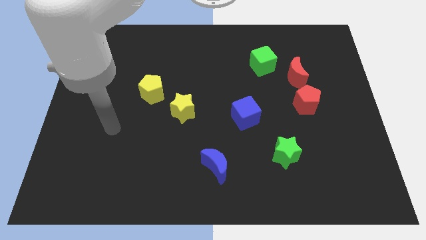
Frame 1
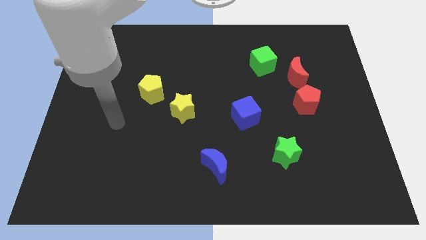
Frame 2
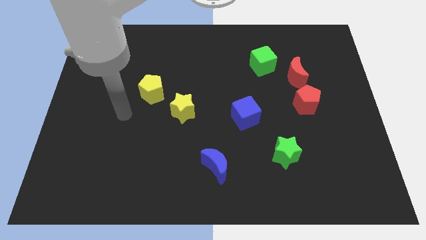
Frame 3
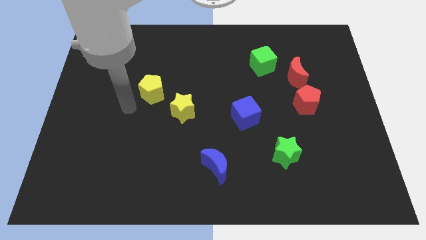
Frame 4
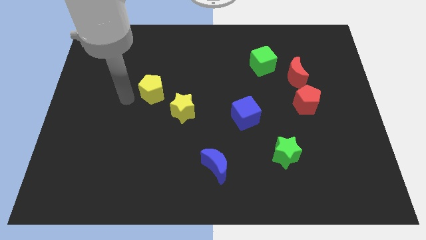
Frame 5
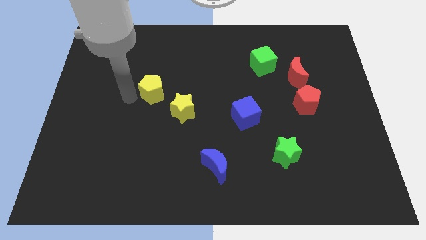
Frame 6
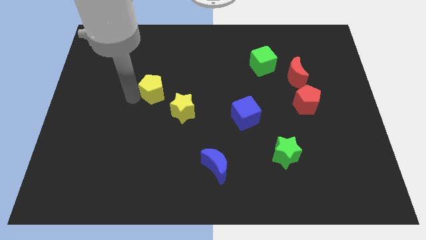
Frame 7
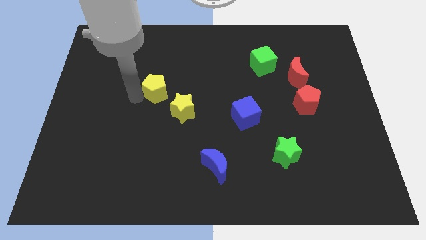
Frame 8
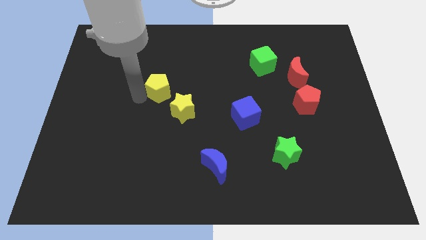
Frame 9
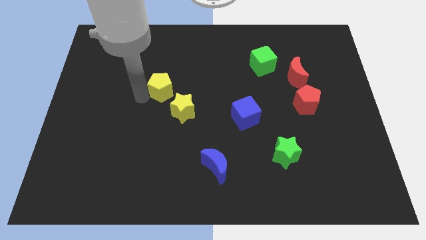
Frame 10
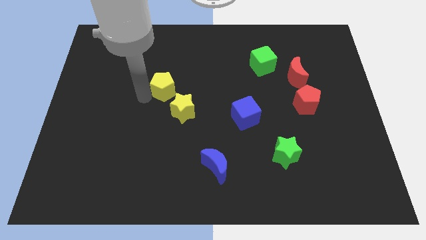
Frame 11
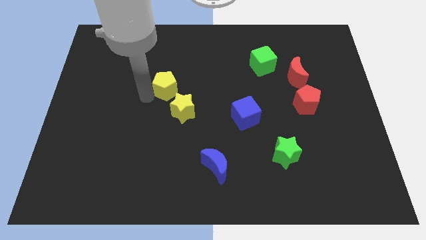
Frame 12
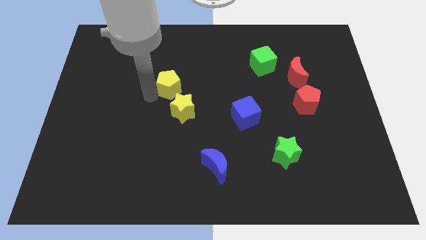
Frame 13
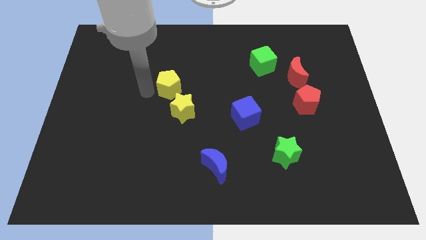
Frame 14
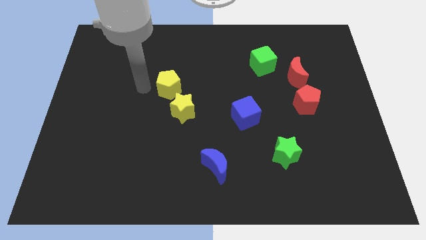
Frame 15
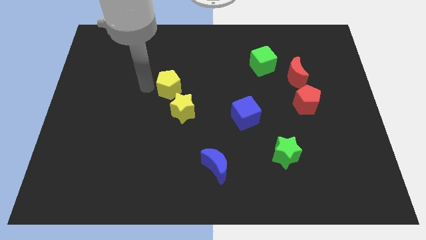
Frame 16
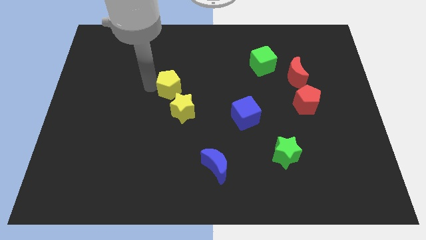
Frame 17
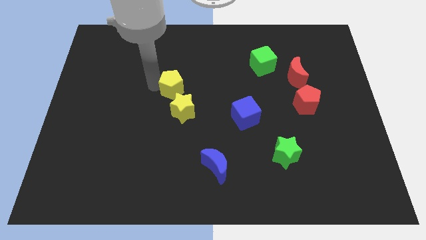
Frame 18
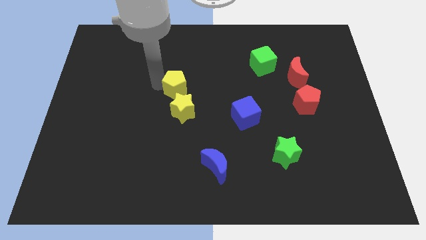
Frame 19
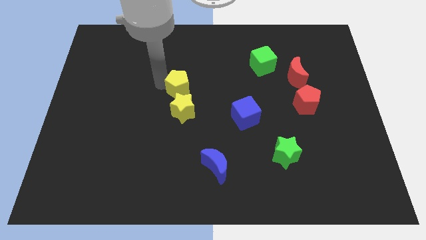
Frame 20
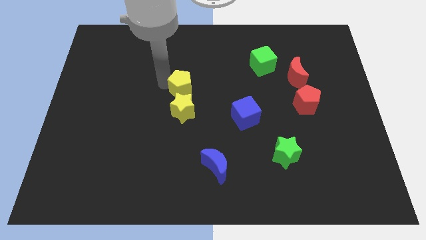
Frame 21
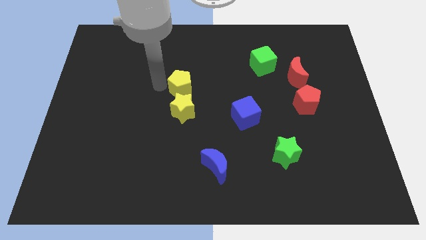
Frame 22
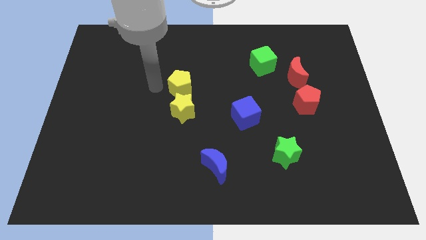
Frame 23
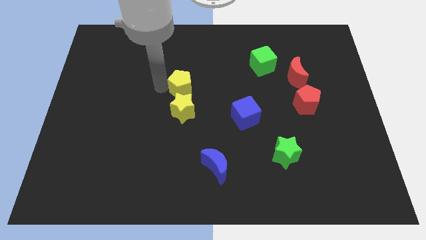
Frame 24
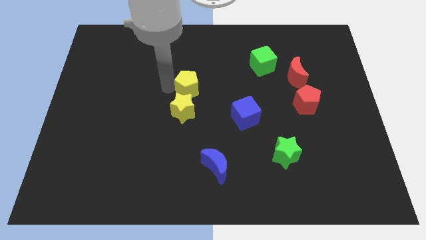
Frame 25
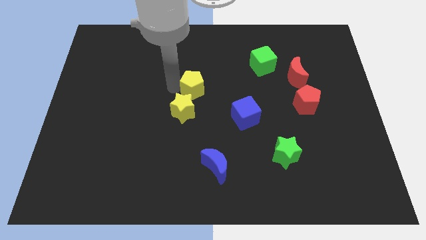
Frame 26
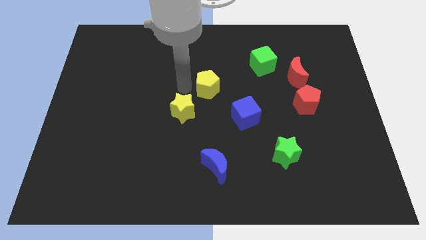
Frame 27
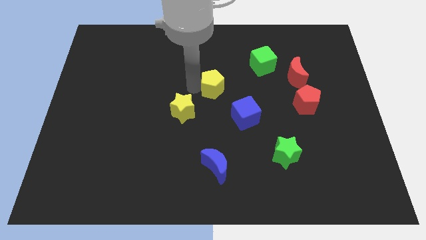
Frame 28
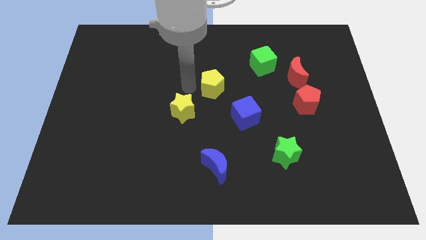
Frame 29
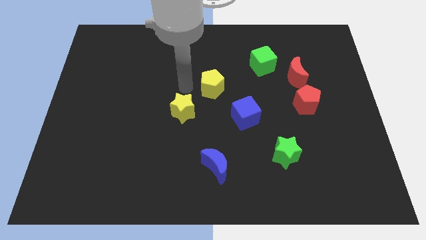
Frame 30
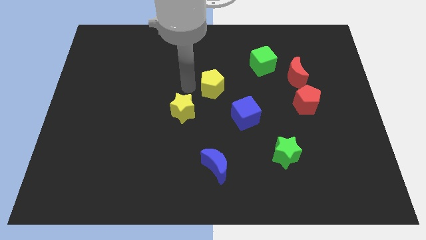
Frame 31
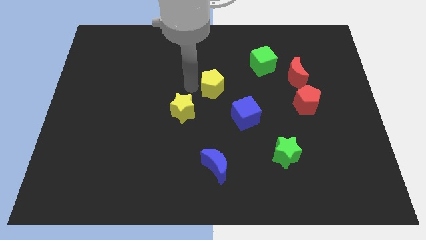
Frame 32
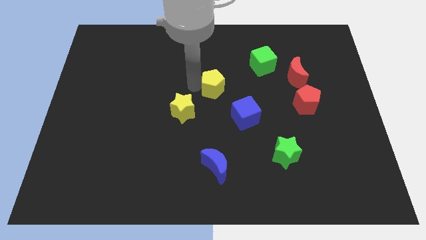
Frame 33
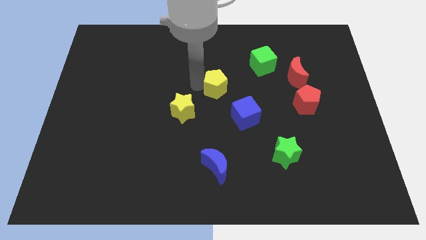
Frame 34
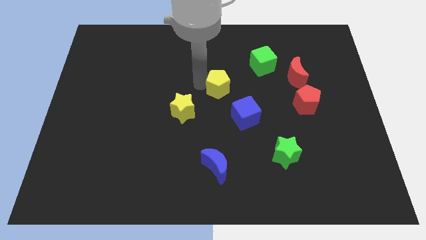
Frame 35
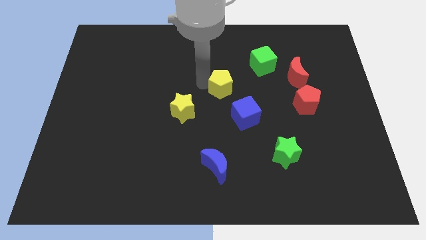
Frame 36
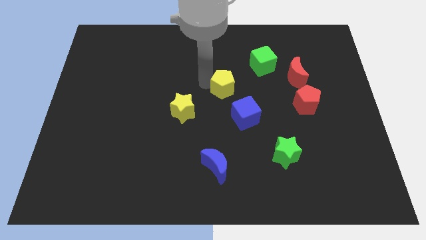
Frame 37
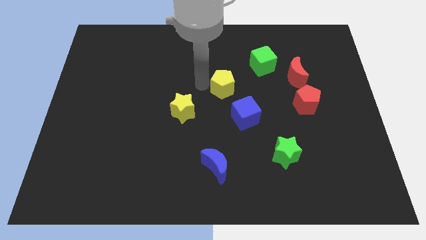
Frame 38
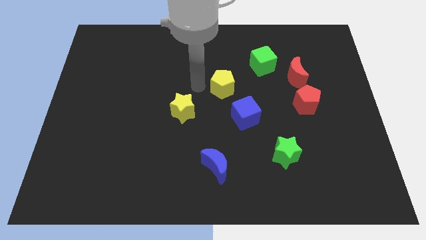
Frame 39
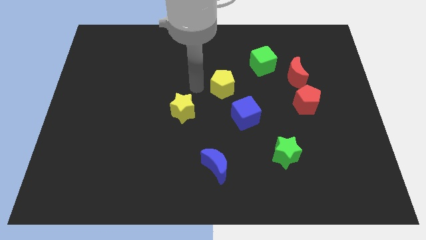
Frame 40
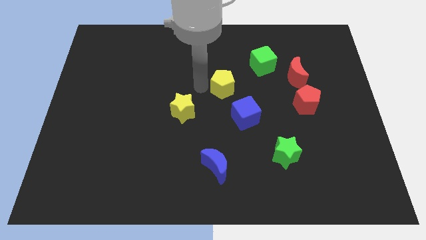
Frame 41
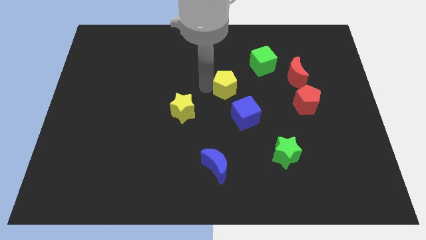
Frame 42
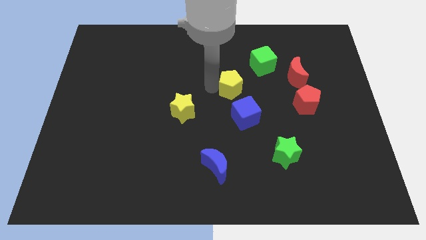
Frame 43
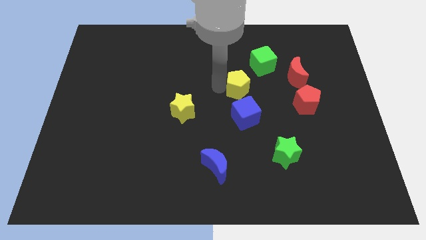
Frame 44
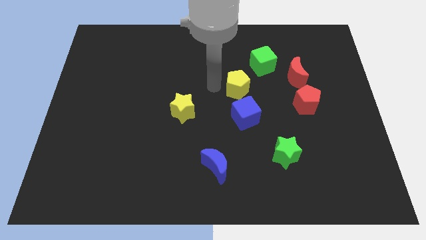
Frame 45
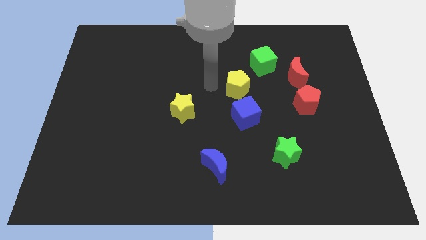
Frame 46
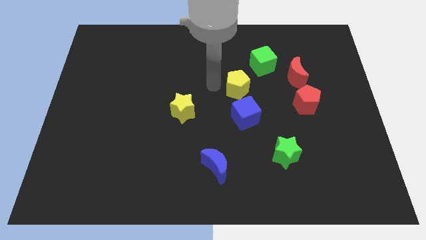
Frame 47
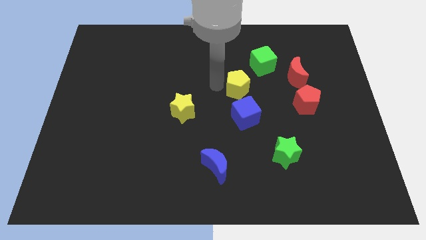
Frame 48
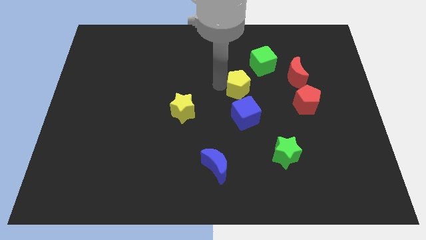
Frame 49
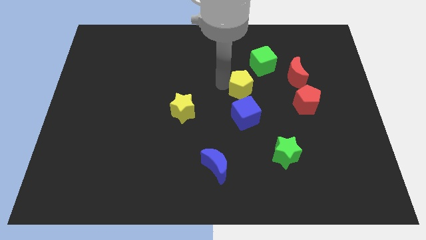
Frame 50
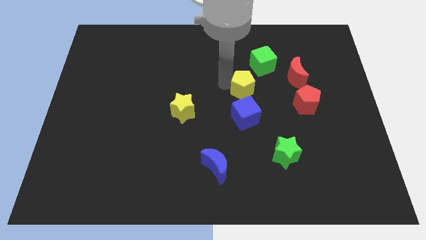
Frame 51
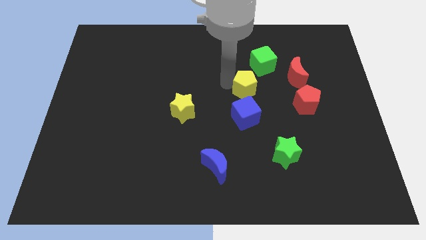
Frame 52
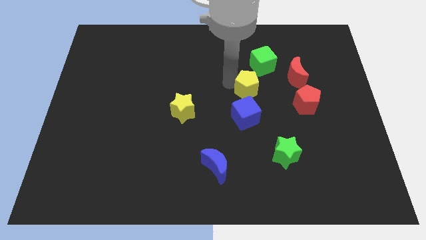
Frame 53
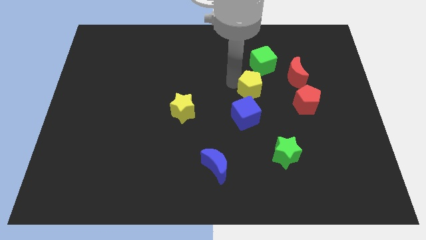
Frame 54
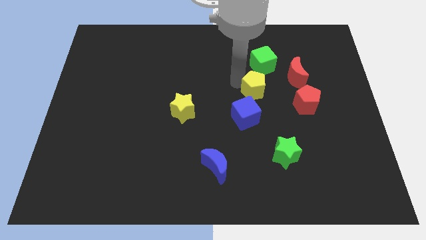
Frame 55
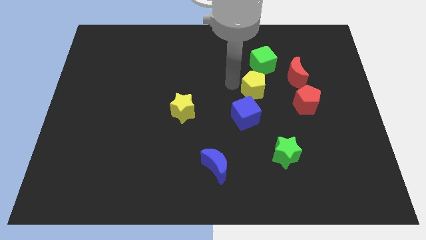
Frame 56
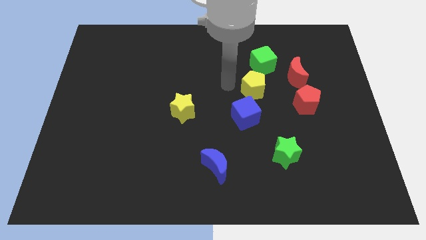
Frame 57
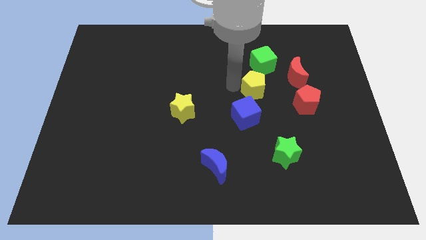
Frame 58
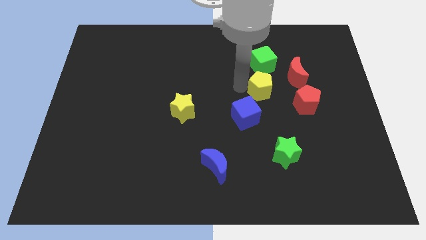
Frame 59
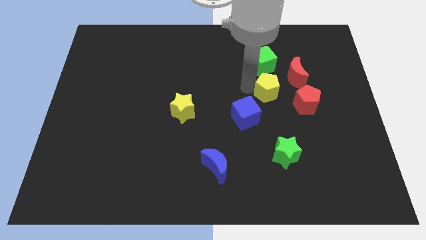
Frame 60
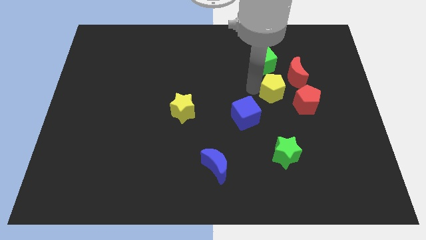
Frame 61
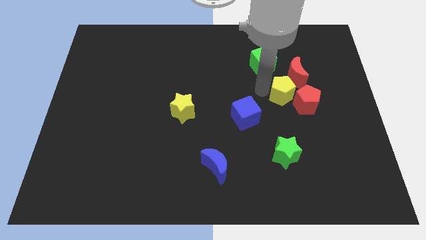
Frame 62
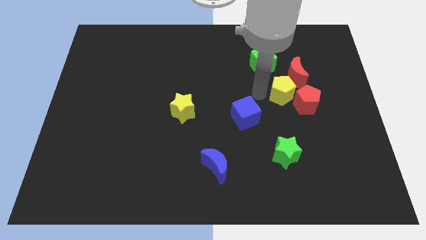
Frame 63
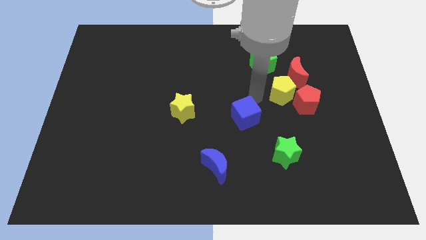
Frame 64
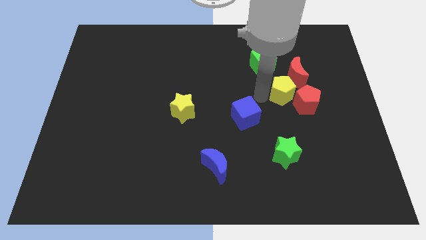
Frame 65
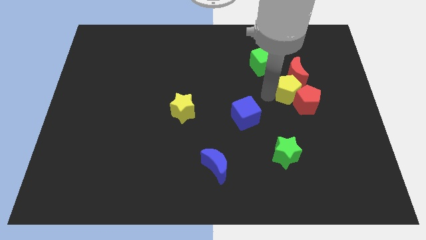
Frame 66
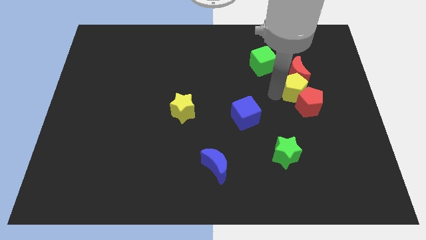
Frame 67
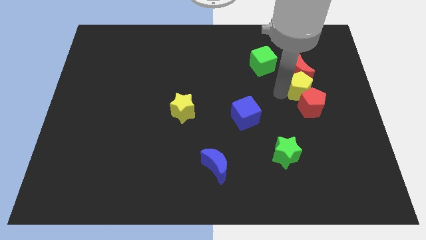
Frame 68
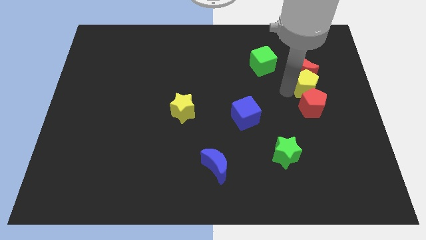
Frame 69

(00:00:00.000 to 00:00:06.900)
slide the yellow pentagon diagonally up and to the right of the red pentagon

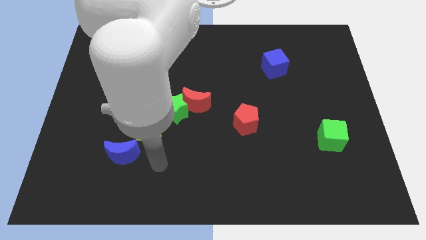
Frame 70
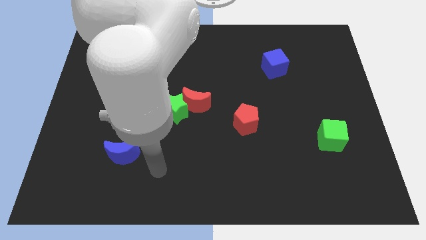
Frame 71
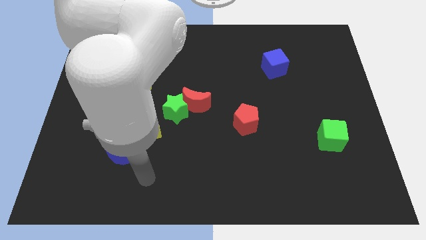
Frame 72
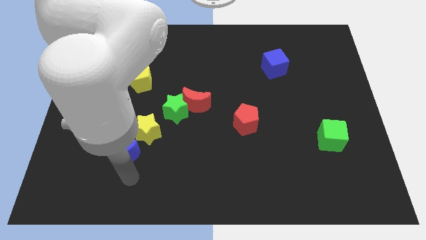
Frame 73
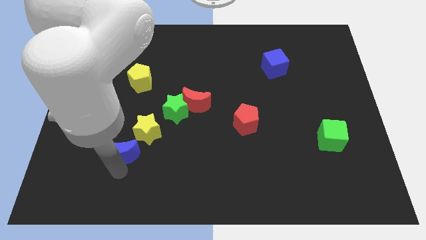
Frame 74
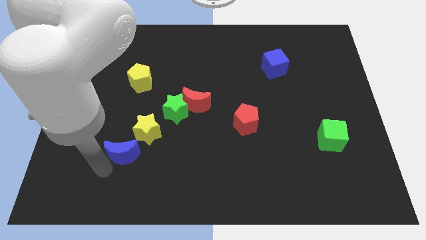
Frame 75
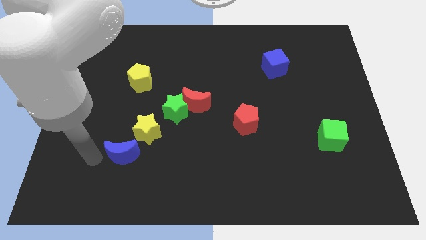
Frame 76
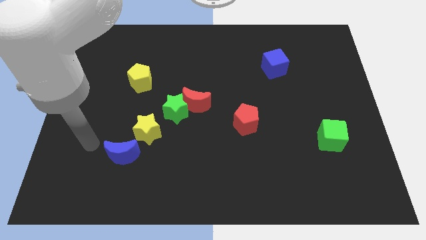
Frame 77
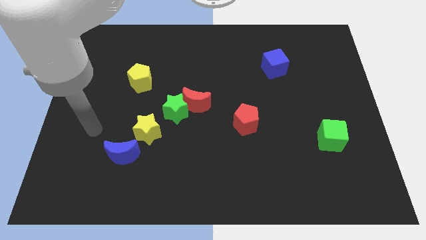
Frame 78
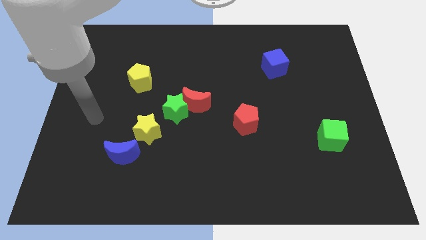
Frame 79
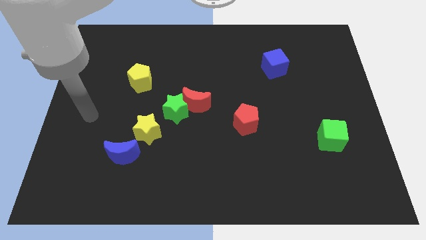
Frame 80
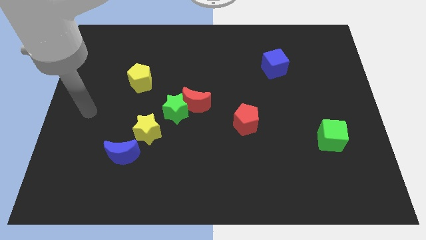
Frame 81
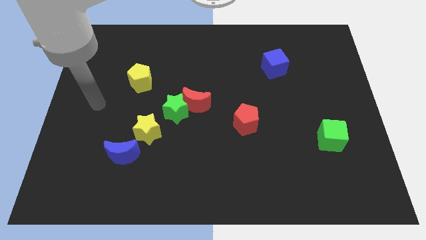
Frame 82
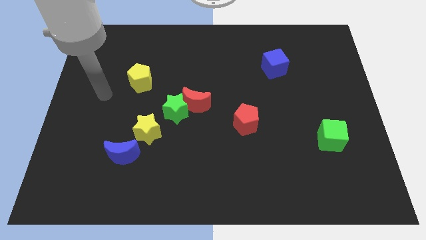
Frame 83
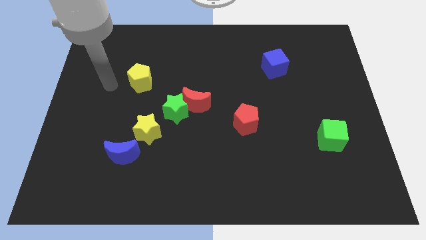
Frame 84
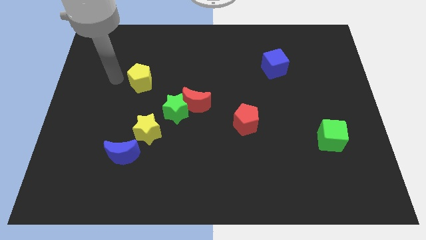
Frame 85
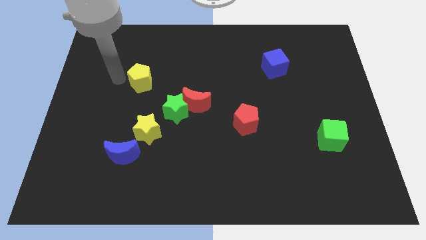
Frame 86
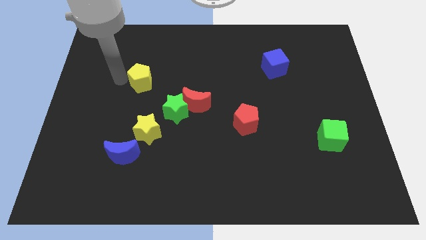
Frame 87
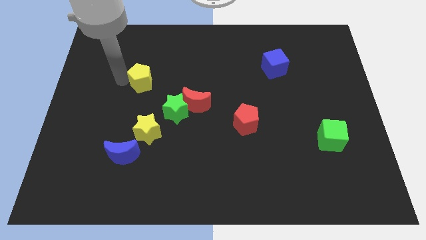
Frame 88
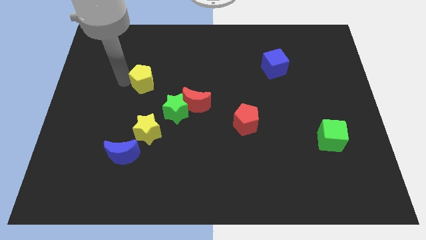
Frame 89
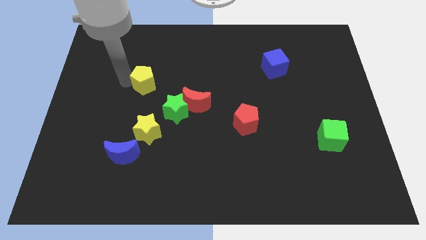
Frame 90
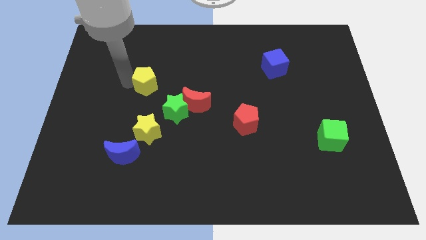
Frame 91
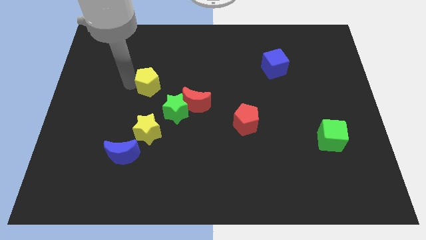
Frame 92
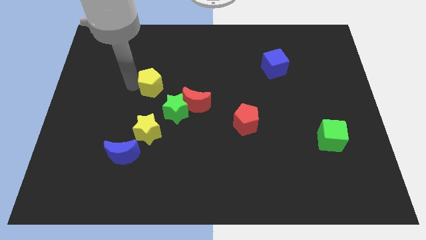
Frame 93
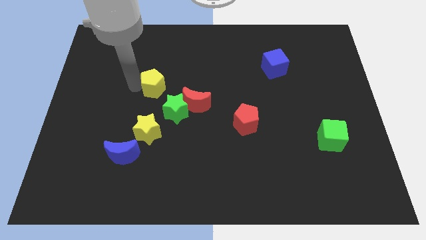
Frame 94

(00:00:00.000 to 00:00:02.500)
put the yellow pentagon to the top left of the red moon
